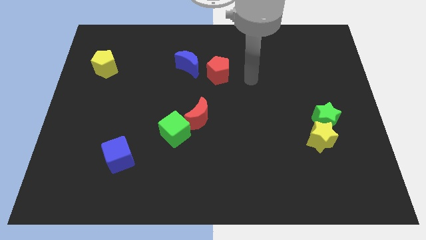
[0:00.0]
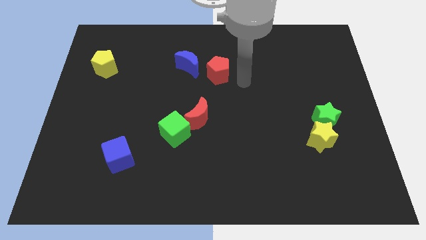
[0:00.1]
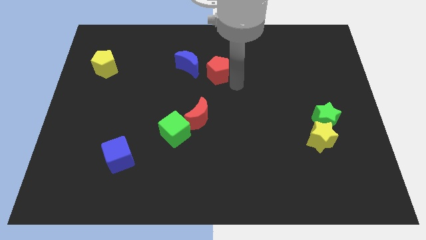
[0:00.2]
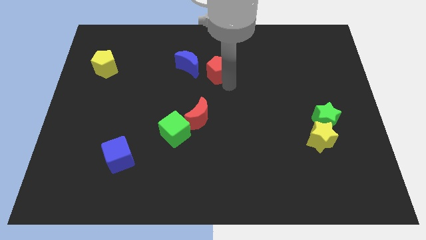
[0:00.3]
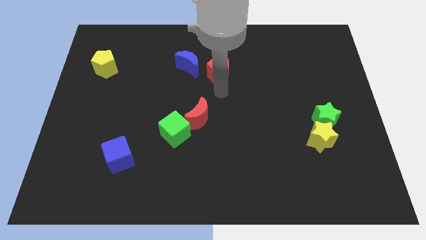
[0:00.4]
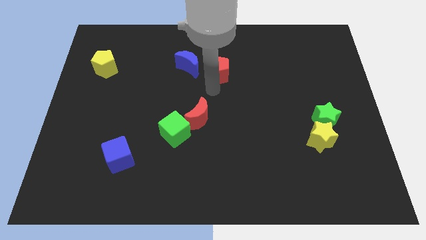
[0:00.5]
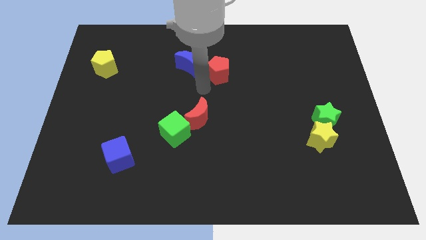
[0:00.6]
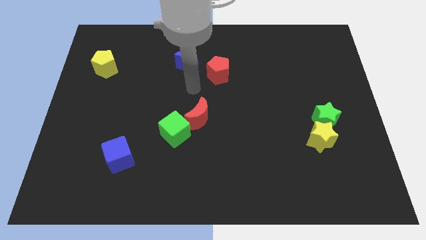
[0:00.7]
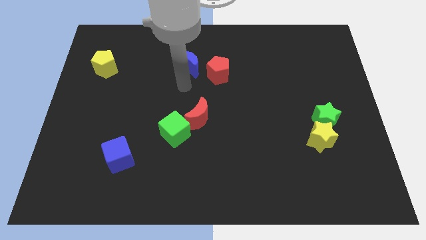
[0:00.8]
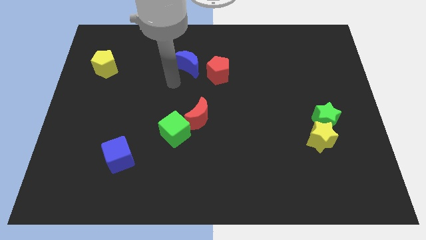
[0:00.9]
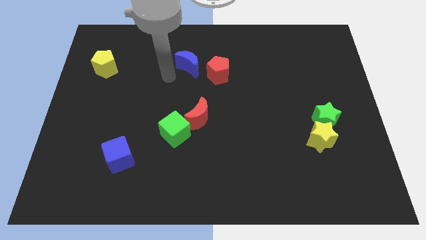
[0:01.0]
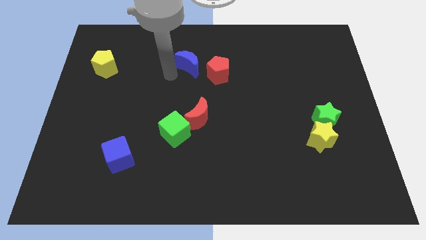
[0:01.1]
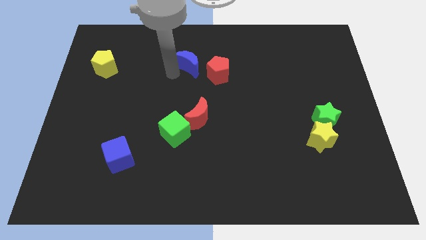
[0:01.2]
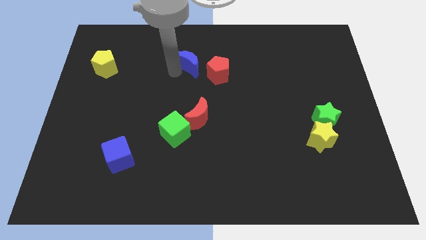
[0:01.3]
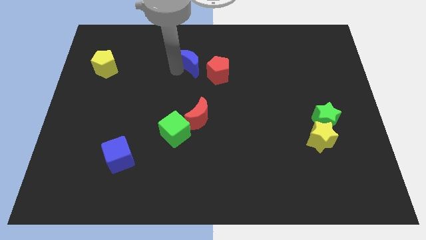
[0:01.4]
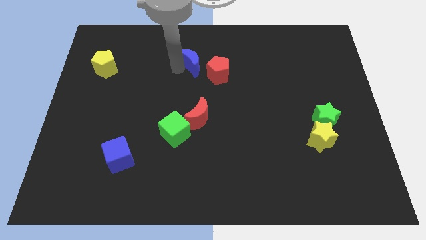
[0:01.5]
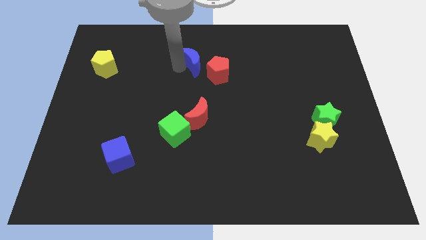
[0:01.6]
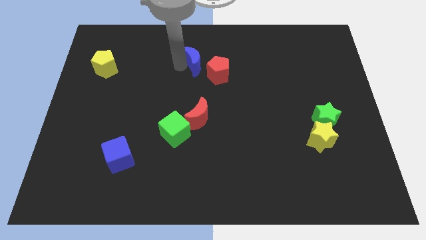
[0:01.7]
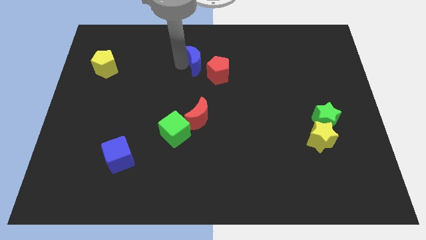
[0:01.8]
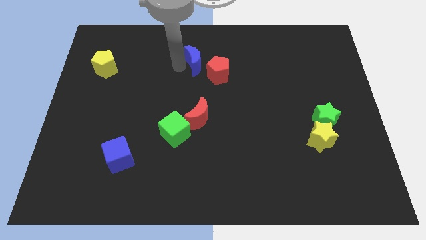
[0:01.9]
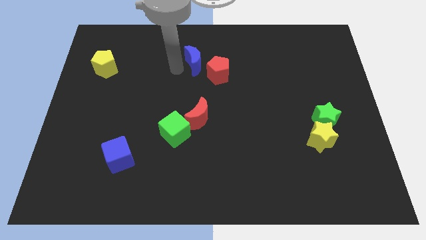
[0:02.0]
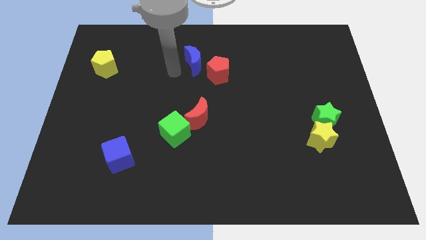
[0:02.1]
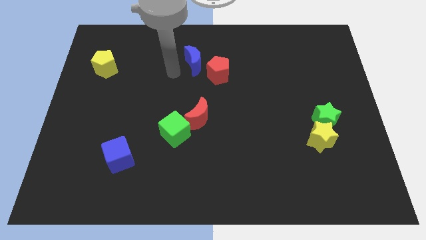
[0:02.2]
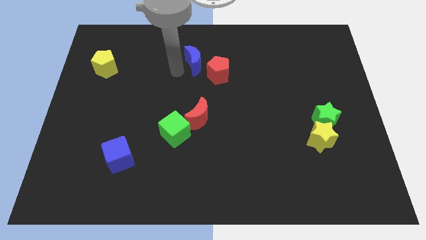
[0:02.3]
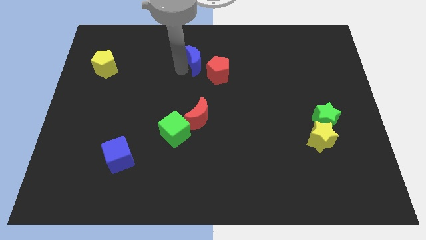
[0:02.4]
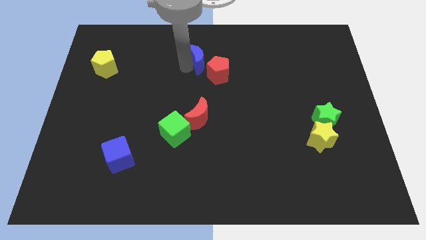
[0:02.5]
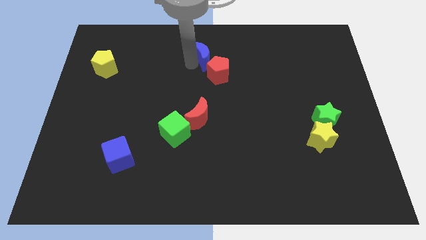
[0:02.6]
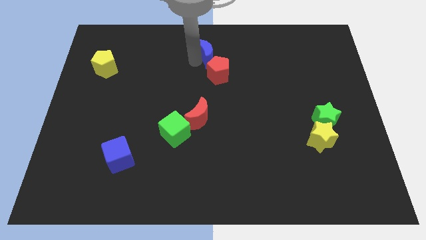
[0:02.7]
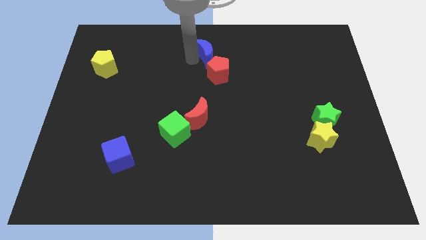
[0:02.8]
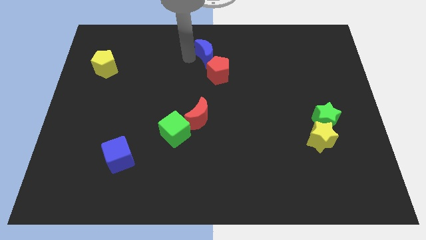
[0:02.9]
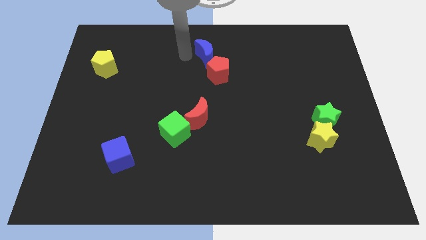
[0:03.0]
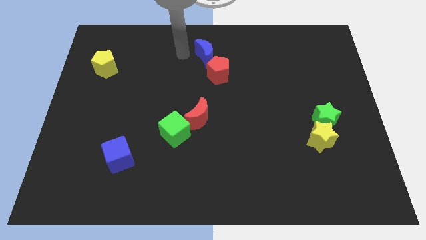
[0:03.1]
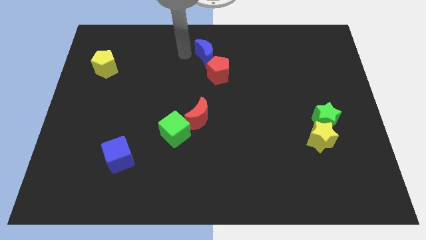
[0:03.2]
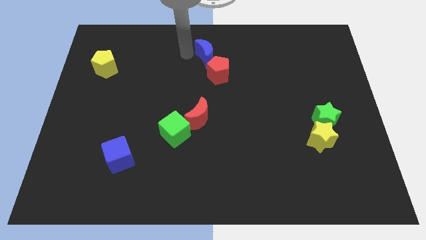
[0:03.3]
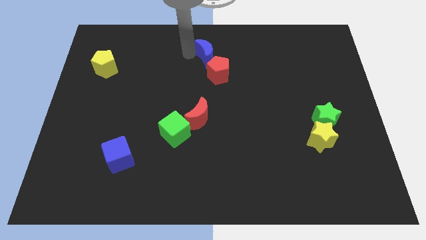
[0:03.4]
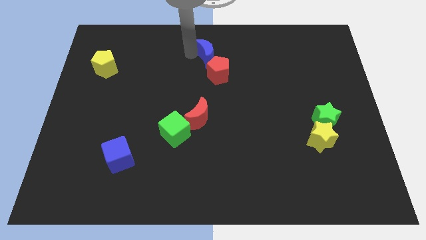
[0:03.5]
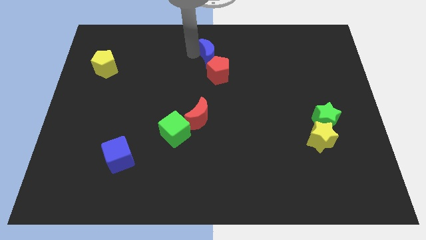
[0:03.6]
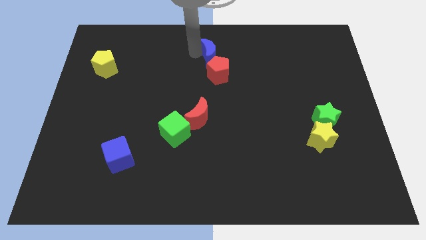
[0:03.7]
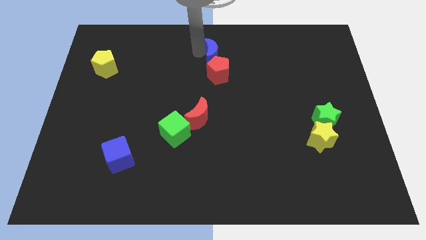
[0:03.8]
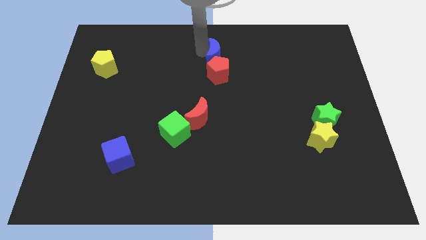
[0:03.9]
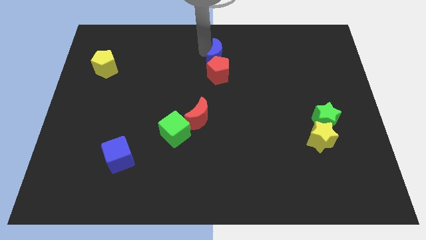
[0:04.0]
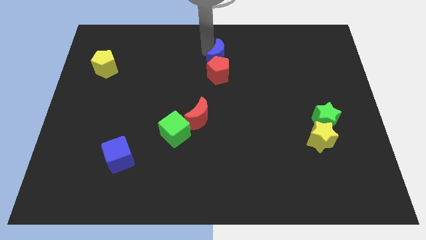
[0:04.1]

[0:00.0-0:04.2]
slightly push the blue moon to the right

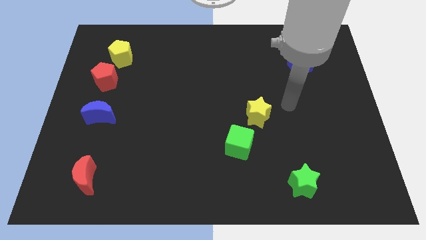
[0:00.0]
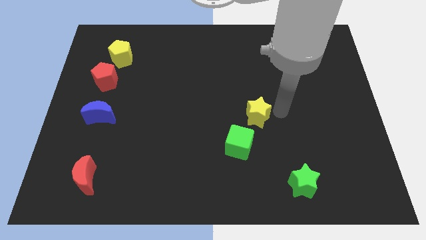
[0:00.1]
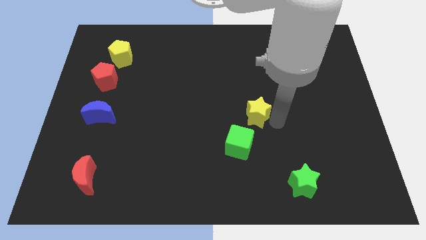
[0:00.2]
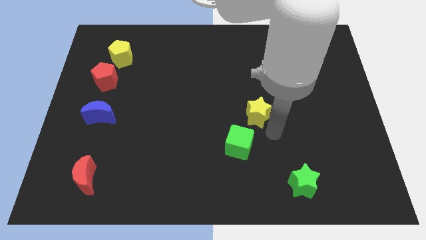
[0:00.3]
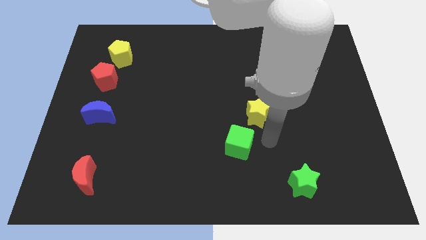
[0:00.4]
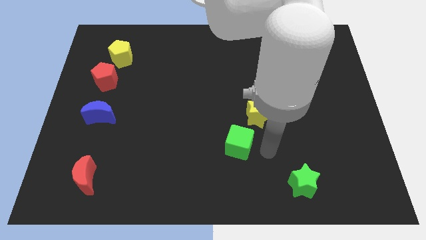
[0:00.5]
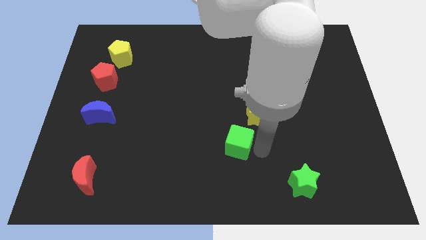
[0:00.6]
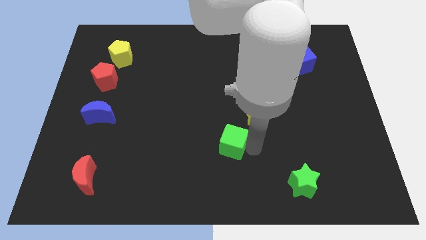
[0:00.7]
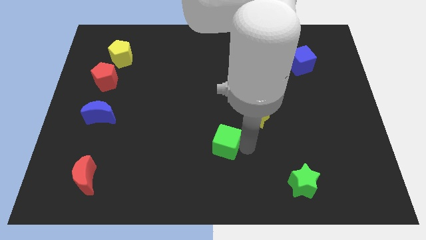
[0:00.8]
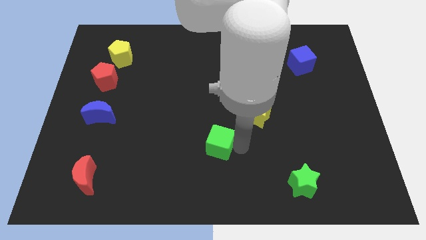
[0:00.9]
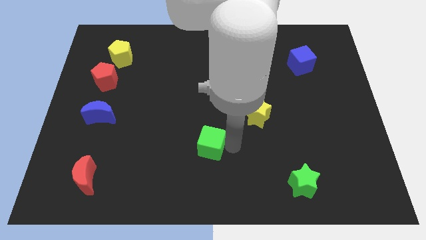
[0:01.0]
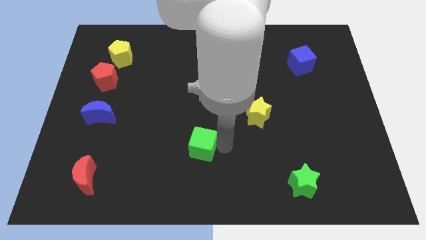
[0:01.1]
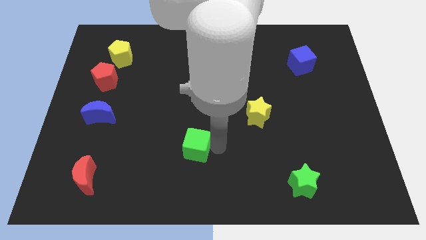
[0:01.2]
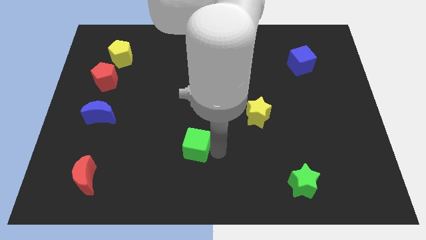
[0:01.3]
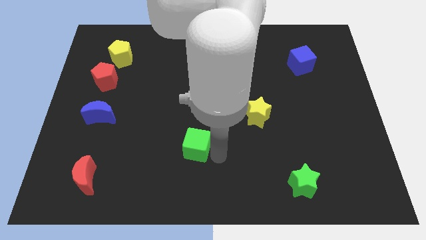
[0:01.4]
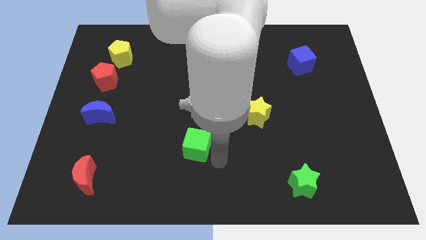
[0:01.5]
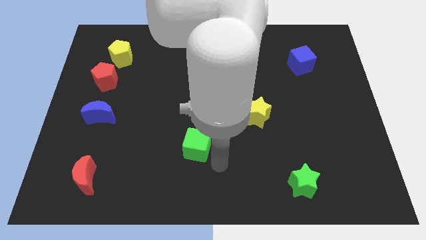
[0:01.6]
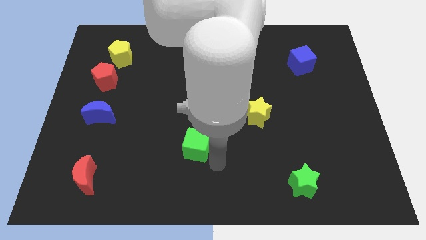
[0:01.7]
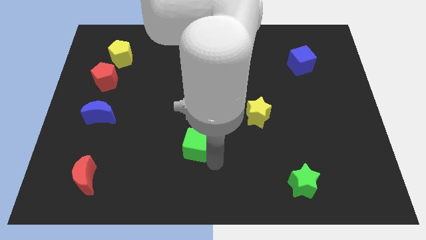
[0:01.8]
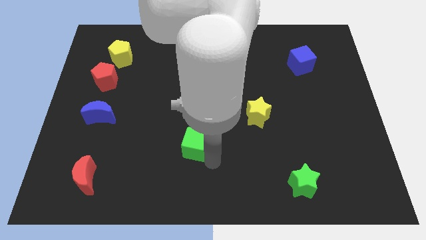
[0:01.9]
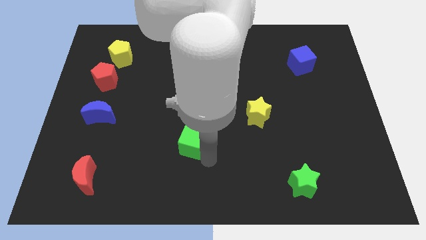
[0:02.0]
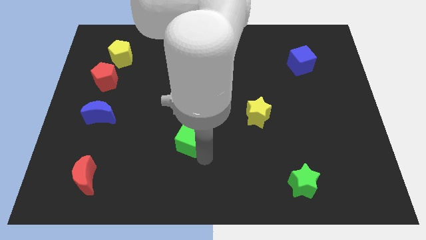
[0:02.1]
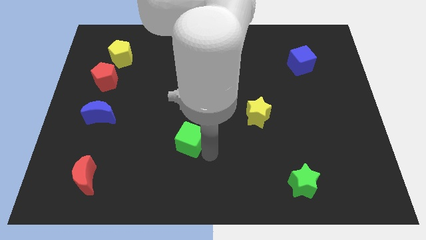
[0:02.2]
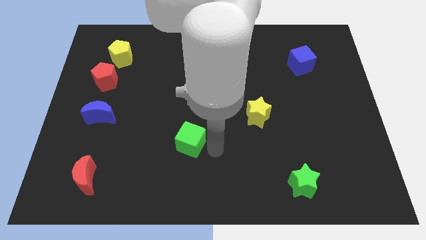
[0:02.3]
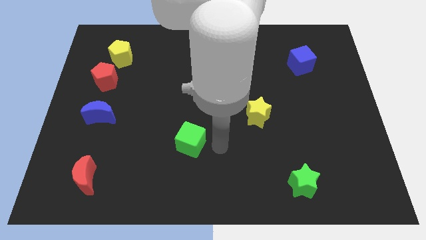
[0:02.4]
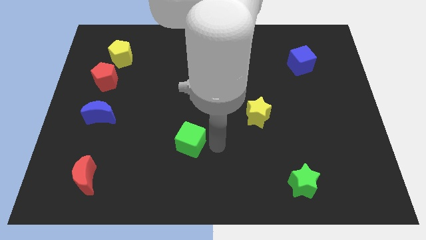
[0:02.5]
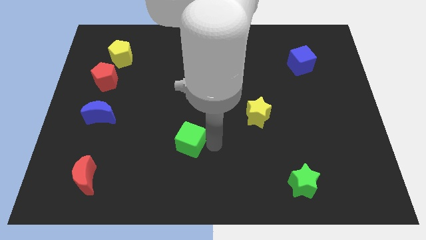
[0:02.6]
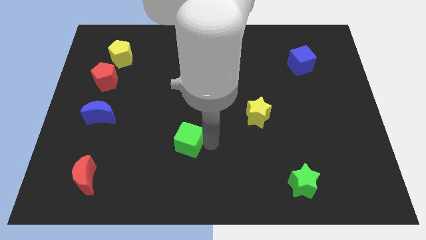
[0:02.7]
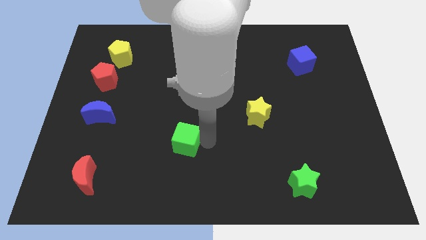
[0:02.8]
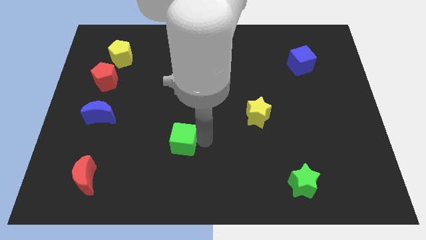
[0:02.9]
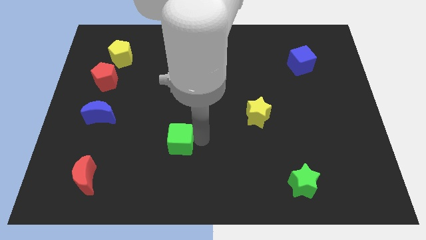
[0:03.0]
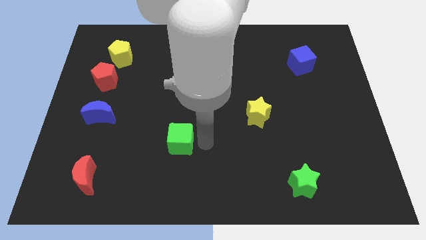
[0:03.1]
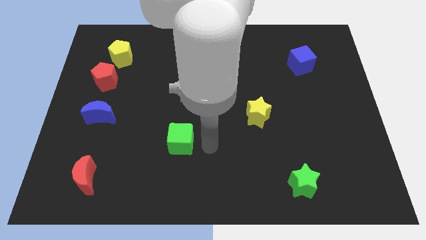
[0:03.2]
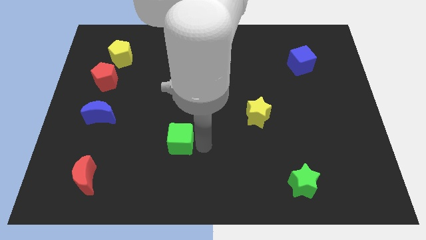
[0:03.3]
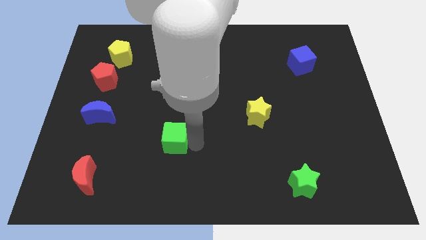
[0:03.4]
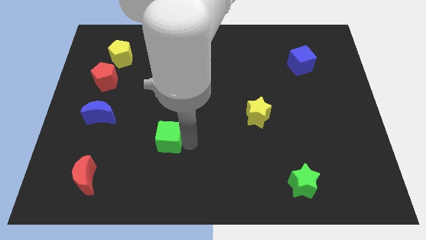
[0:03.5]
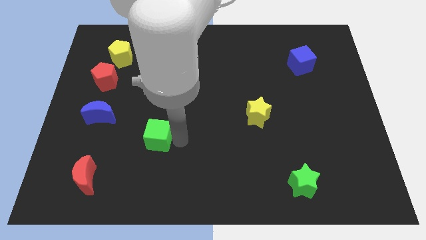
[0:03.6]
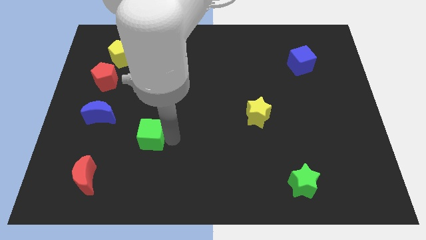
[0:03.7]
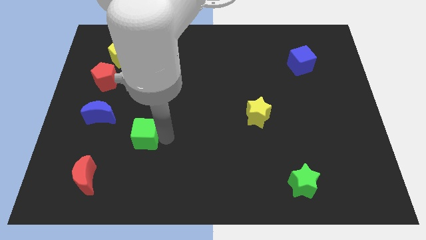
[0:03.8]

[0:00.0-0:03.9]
slide the green cube left
